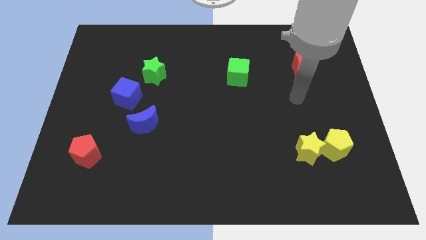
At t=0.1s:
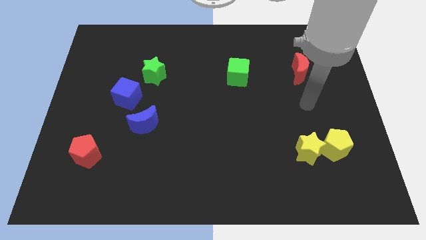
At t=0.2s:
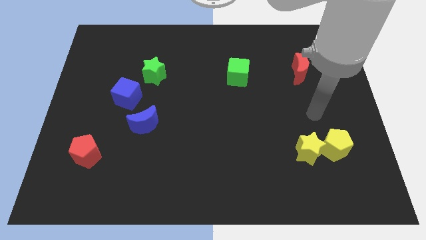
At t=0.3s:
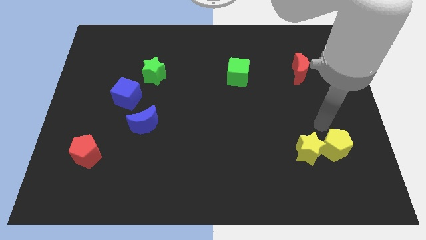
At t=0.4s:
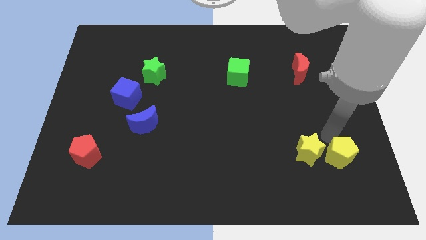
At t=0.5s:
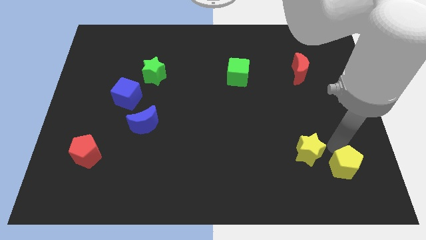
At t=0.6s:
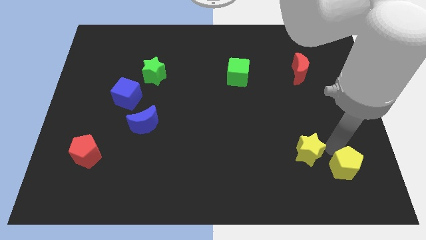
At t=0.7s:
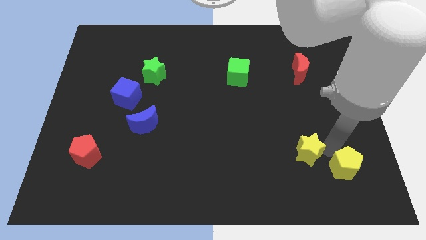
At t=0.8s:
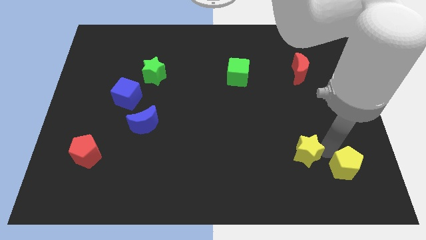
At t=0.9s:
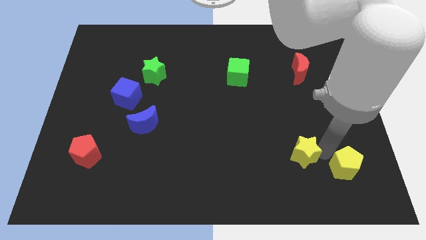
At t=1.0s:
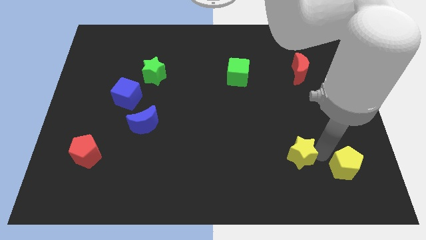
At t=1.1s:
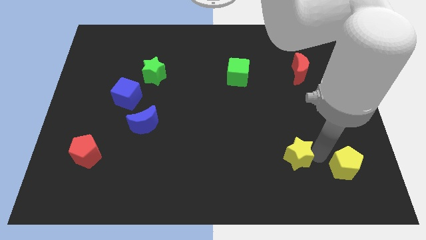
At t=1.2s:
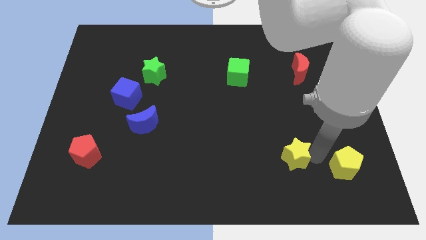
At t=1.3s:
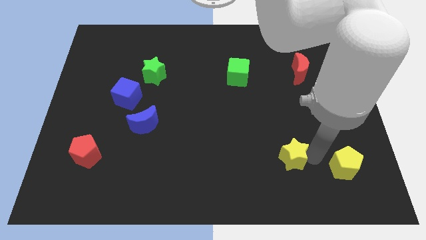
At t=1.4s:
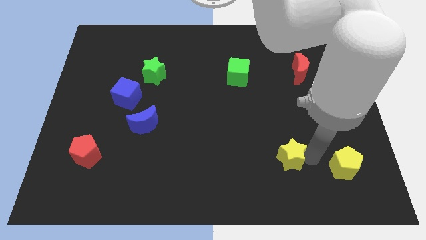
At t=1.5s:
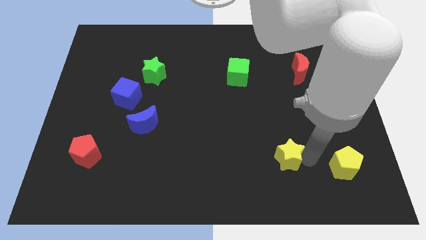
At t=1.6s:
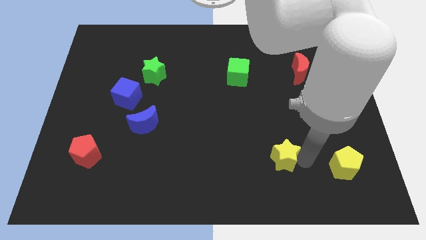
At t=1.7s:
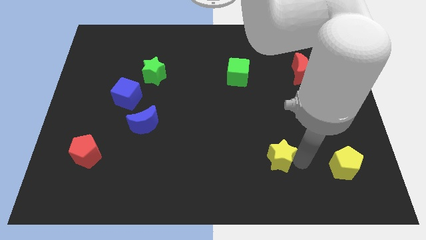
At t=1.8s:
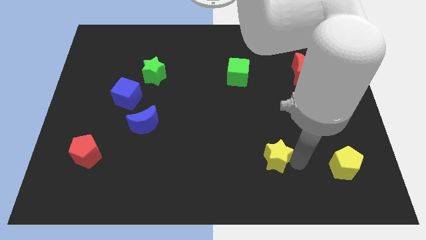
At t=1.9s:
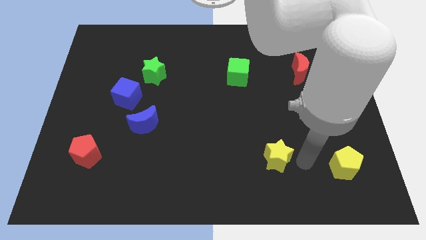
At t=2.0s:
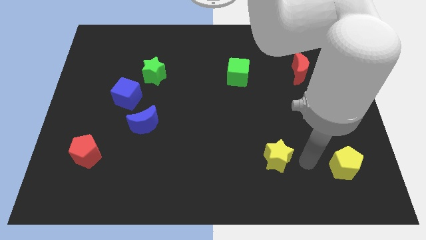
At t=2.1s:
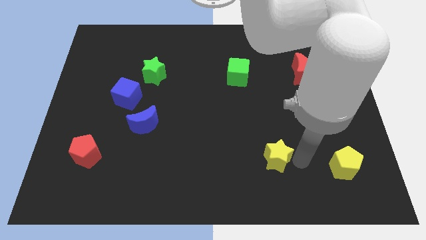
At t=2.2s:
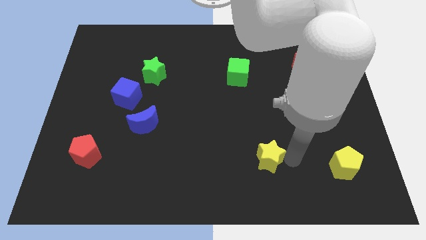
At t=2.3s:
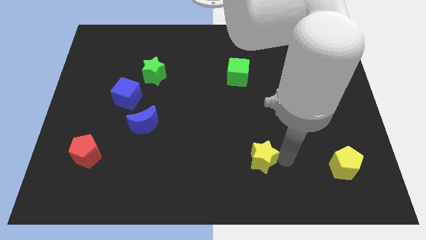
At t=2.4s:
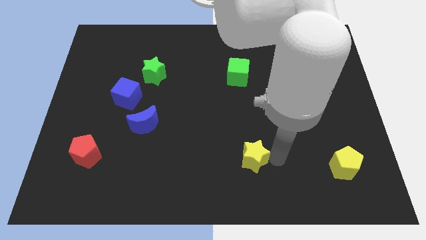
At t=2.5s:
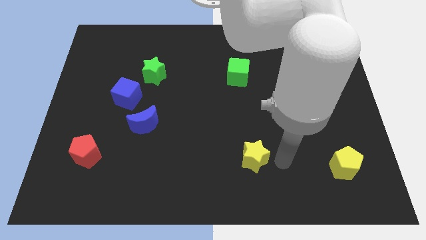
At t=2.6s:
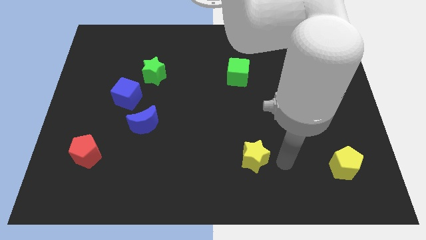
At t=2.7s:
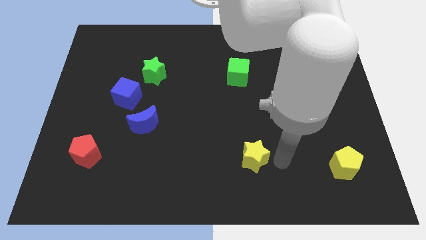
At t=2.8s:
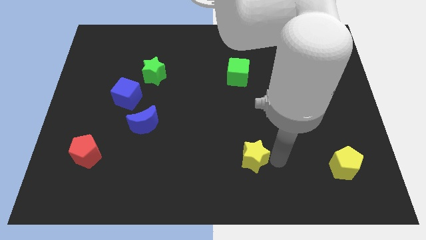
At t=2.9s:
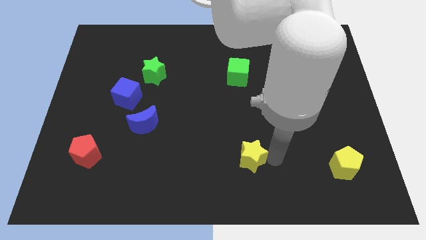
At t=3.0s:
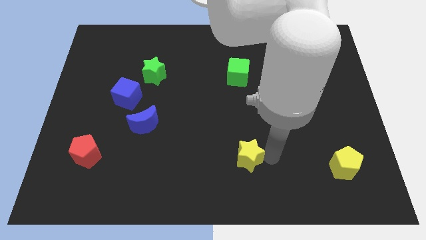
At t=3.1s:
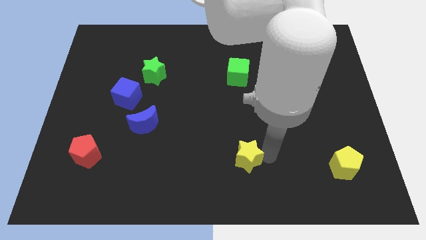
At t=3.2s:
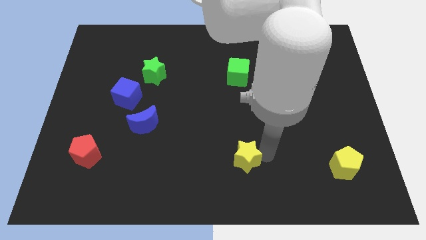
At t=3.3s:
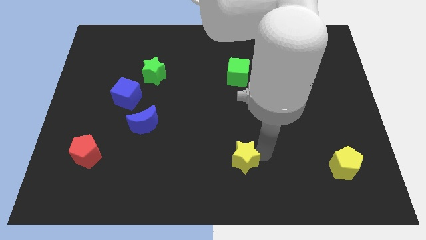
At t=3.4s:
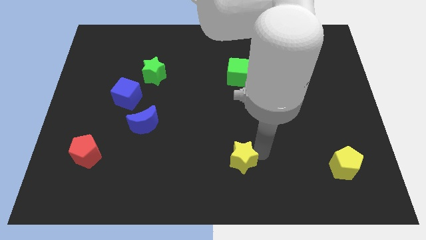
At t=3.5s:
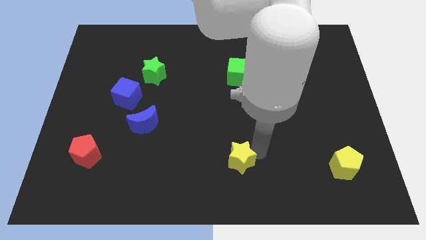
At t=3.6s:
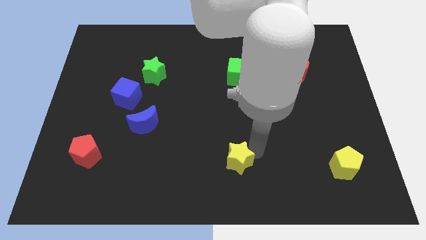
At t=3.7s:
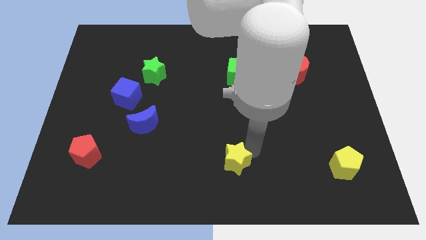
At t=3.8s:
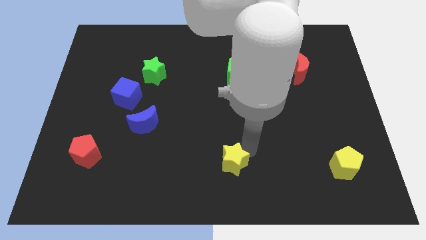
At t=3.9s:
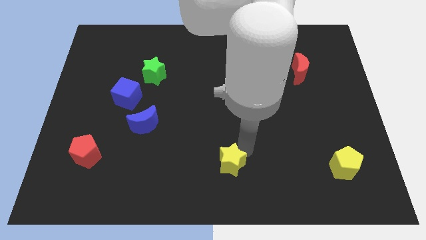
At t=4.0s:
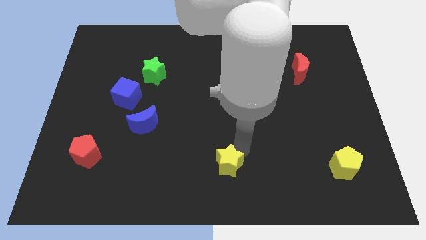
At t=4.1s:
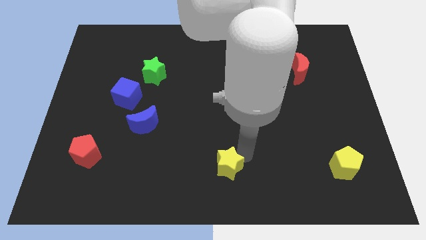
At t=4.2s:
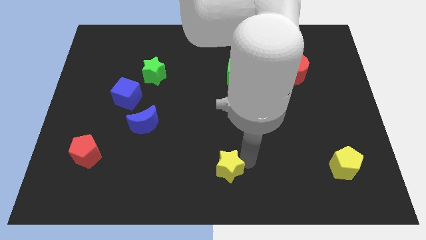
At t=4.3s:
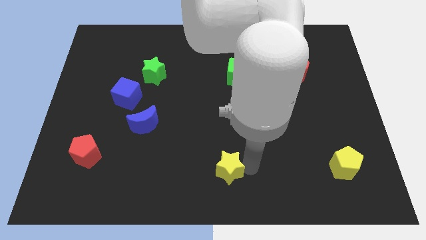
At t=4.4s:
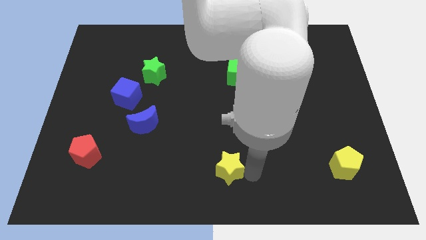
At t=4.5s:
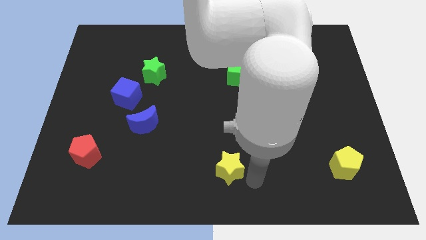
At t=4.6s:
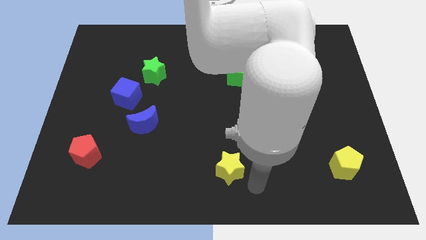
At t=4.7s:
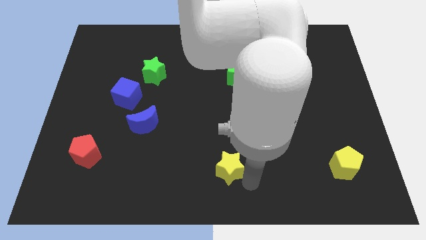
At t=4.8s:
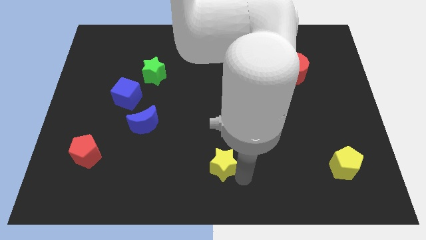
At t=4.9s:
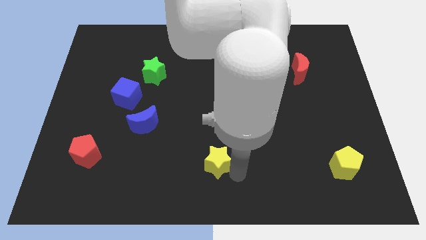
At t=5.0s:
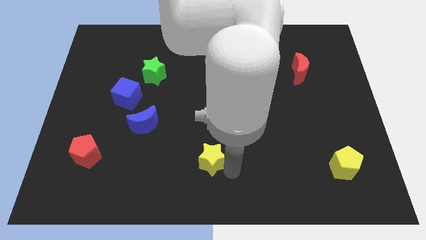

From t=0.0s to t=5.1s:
move the yellow star left

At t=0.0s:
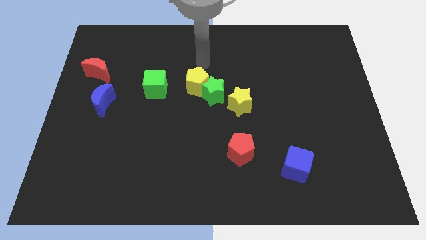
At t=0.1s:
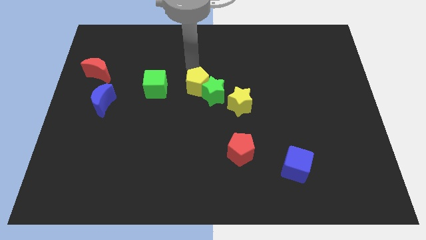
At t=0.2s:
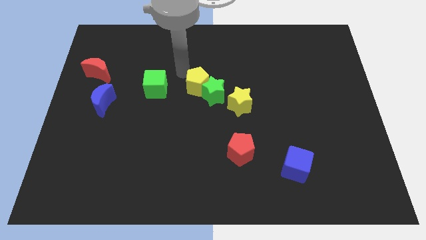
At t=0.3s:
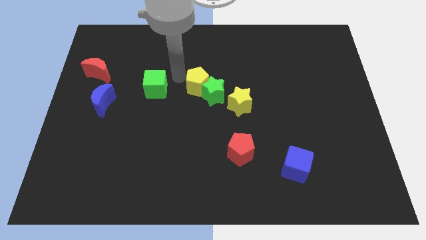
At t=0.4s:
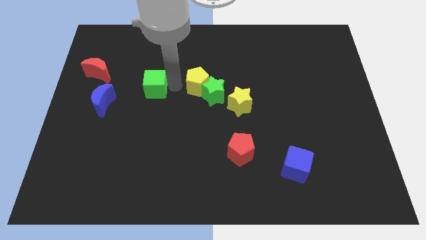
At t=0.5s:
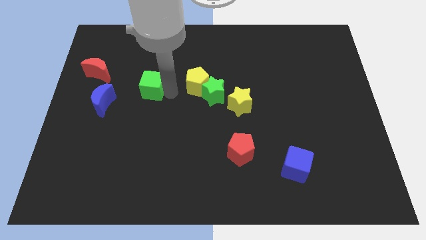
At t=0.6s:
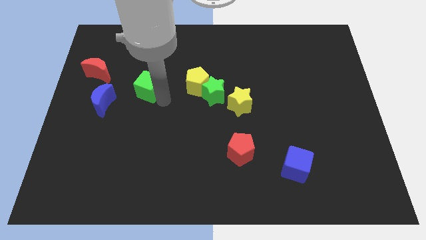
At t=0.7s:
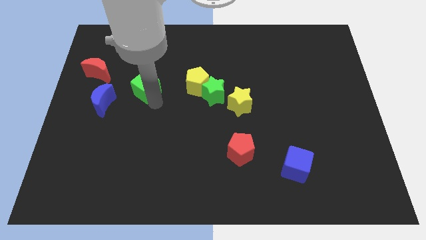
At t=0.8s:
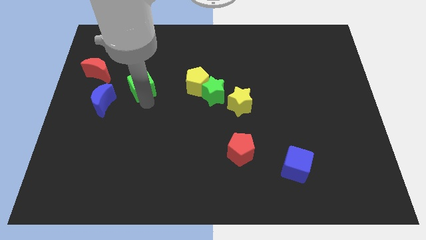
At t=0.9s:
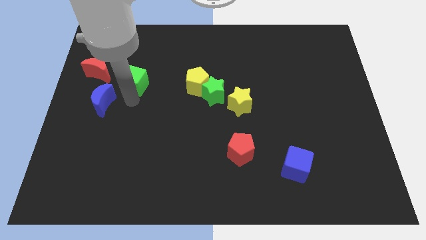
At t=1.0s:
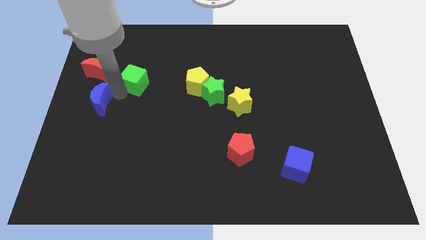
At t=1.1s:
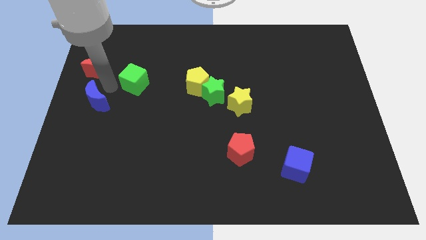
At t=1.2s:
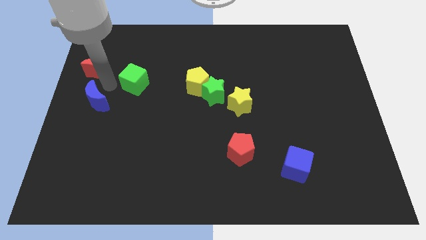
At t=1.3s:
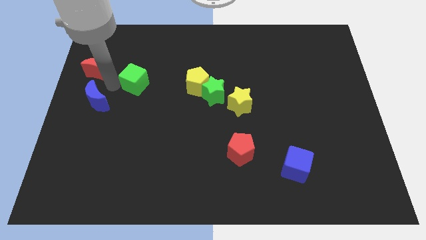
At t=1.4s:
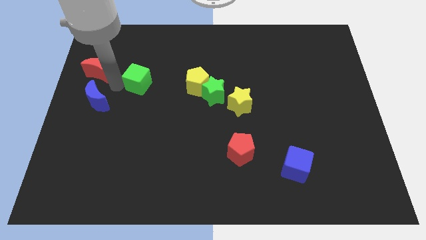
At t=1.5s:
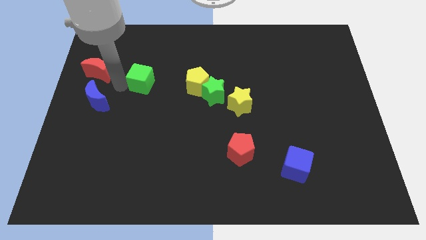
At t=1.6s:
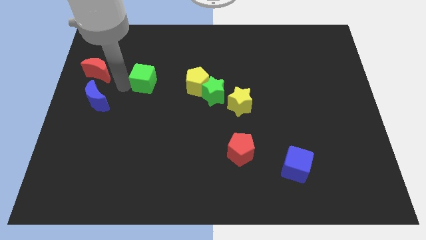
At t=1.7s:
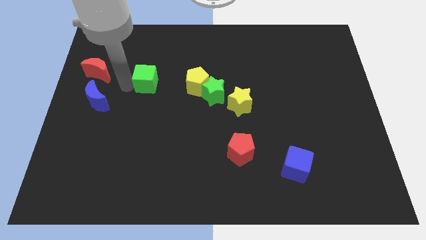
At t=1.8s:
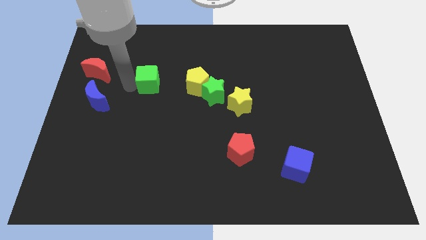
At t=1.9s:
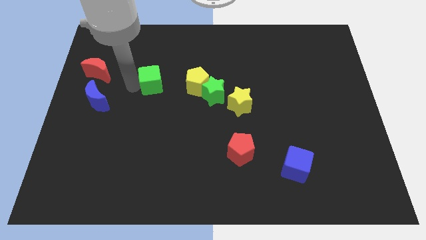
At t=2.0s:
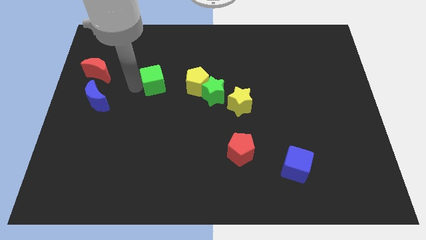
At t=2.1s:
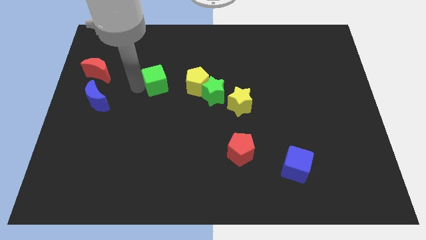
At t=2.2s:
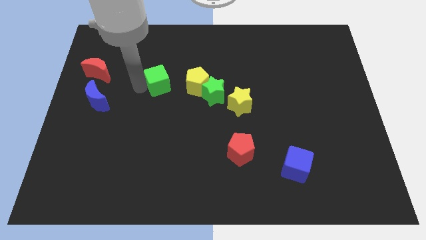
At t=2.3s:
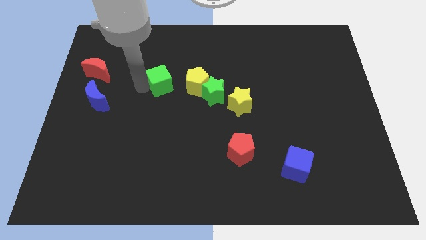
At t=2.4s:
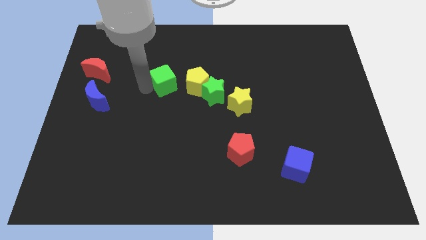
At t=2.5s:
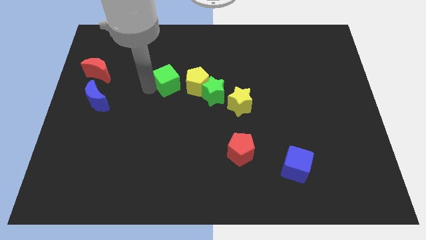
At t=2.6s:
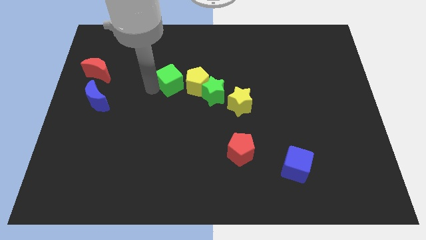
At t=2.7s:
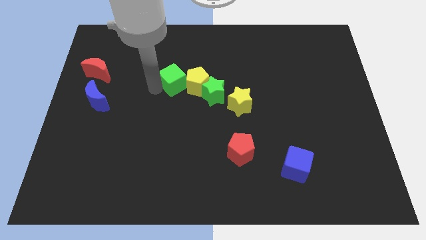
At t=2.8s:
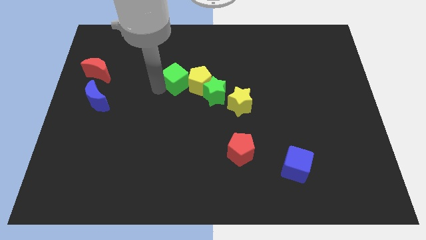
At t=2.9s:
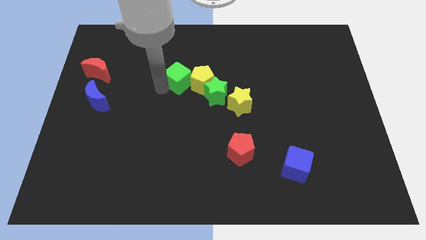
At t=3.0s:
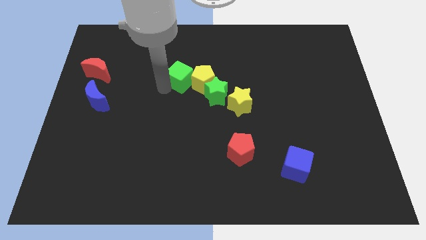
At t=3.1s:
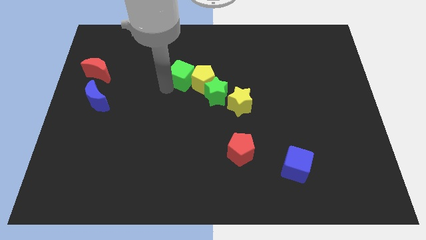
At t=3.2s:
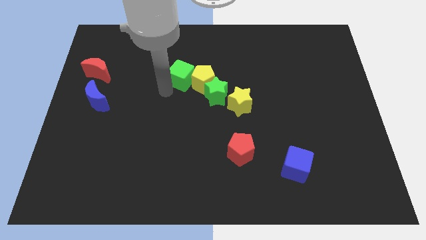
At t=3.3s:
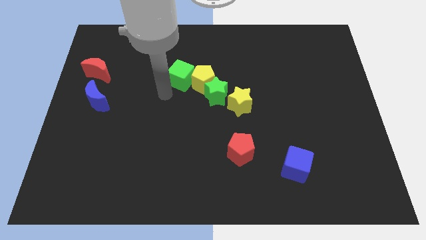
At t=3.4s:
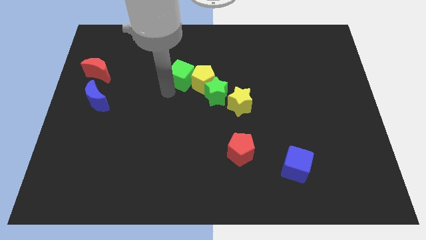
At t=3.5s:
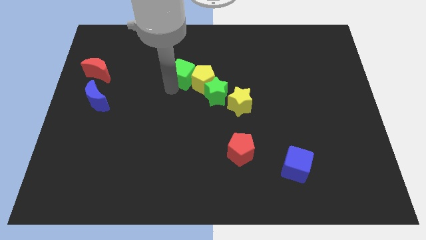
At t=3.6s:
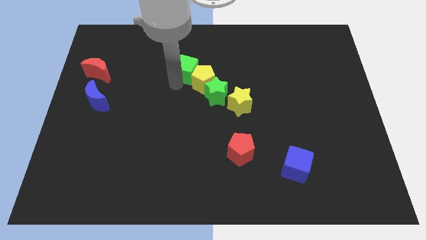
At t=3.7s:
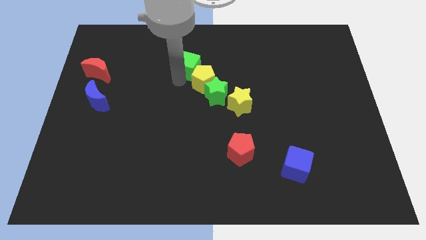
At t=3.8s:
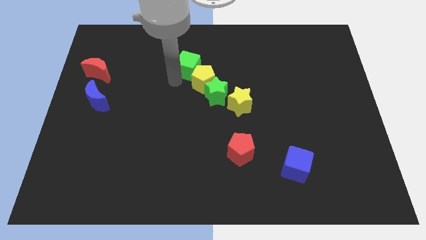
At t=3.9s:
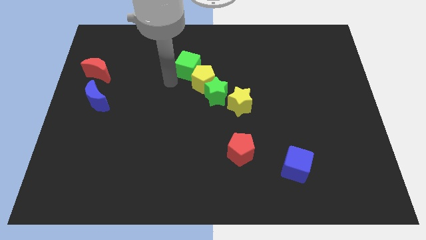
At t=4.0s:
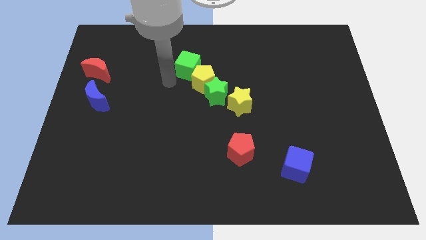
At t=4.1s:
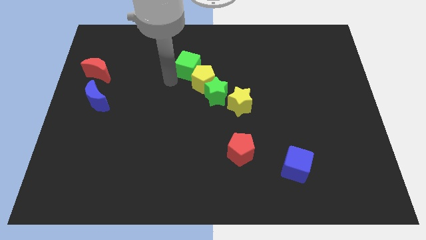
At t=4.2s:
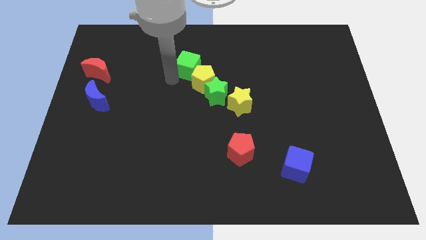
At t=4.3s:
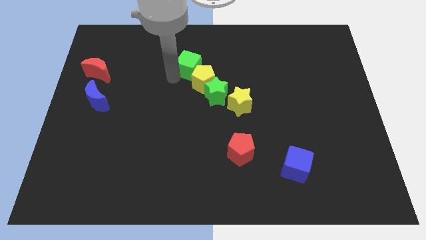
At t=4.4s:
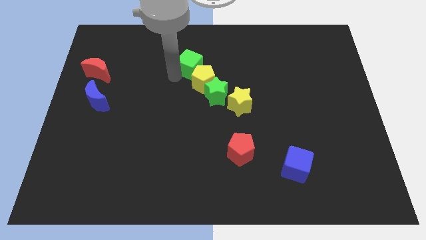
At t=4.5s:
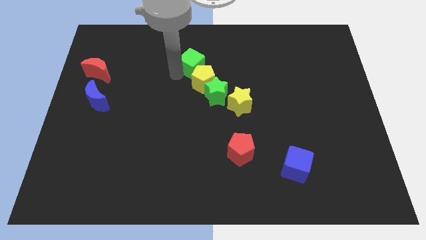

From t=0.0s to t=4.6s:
slightly push the green cube to the right
